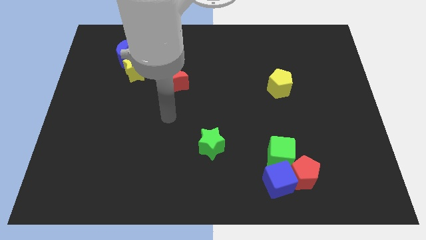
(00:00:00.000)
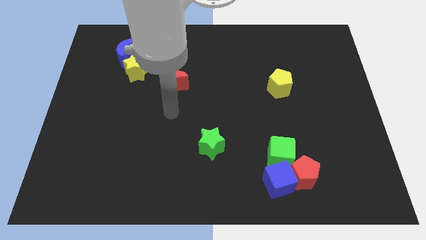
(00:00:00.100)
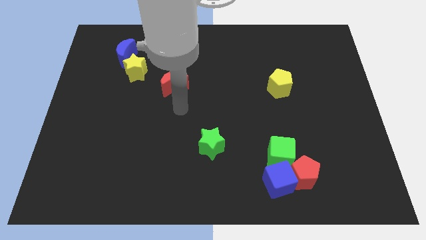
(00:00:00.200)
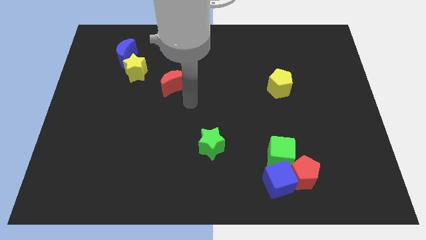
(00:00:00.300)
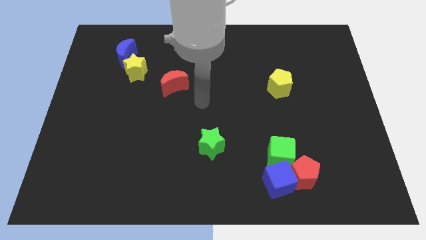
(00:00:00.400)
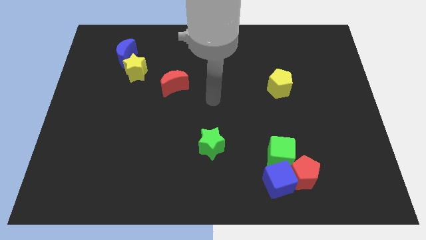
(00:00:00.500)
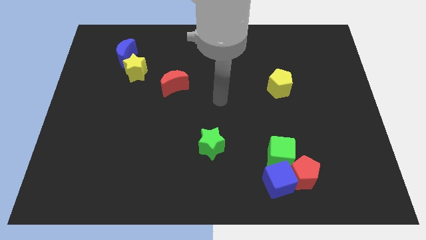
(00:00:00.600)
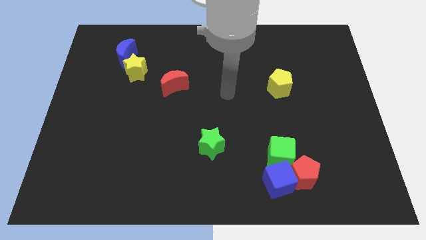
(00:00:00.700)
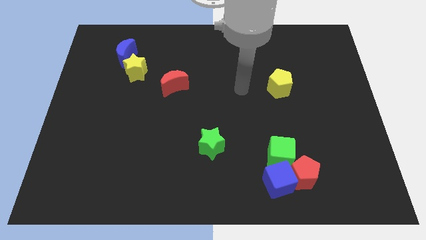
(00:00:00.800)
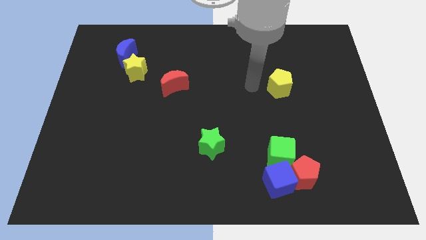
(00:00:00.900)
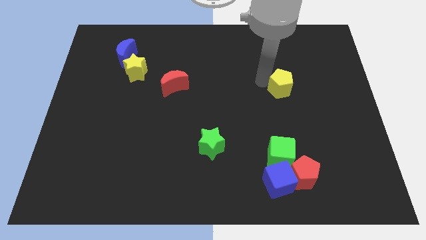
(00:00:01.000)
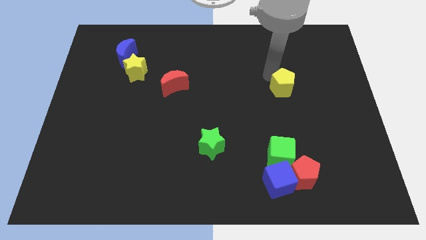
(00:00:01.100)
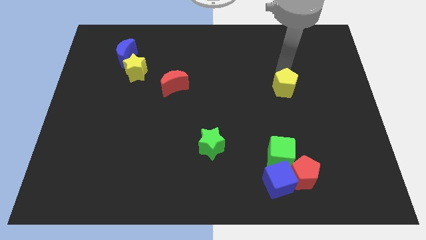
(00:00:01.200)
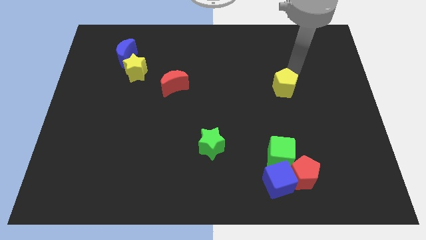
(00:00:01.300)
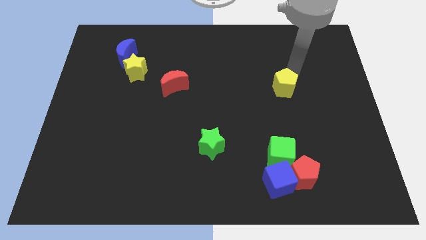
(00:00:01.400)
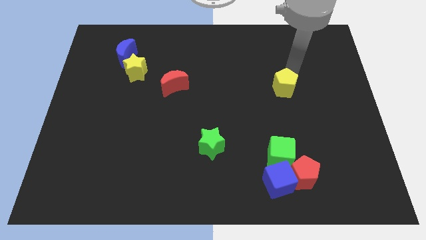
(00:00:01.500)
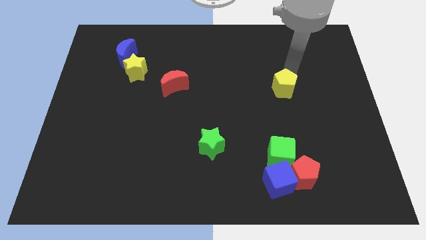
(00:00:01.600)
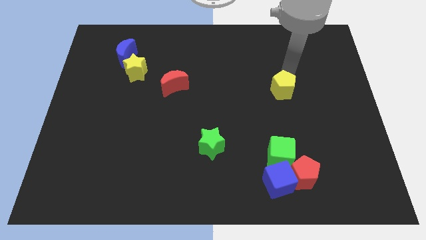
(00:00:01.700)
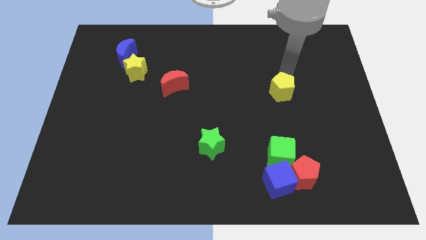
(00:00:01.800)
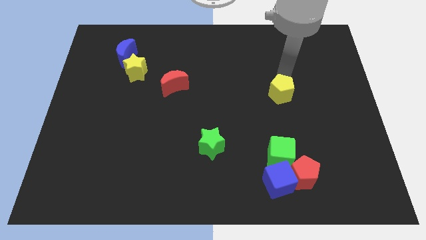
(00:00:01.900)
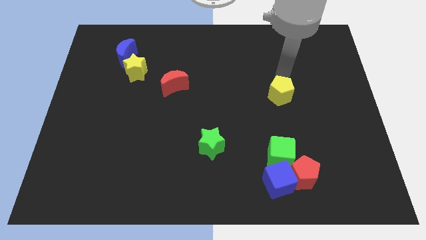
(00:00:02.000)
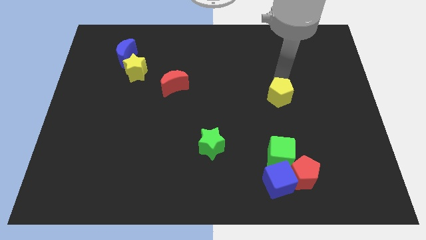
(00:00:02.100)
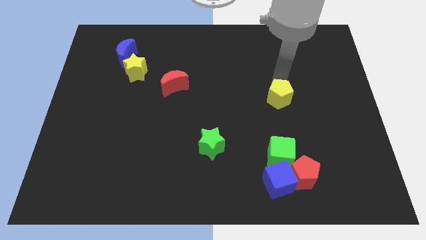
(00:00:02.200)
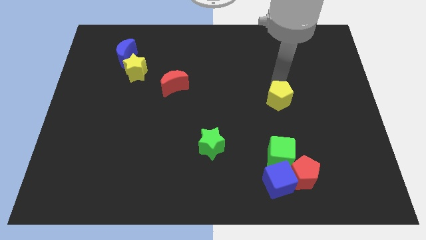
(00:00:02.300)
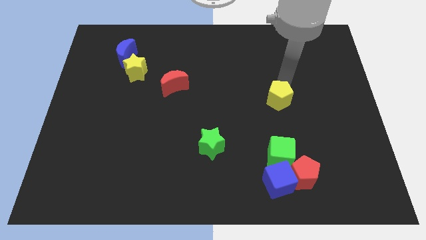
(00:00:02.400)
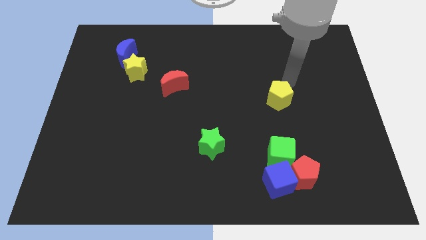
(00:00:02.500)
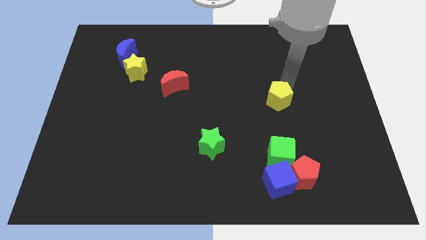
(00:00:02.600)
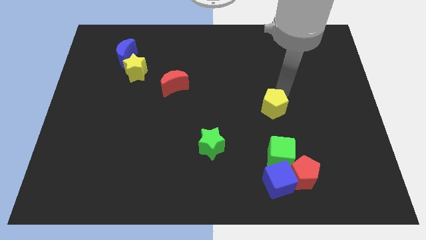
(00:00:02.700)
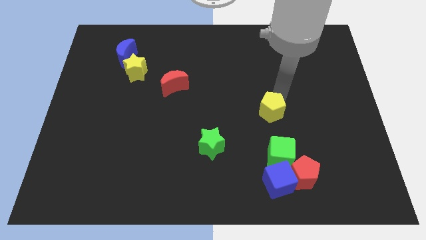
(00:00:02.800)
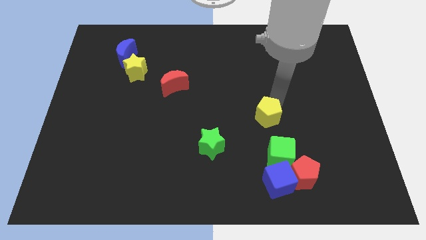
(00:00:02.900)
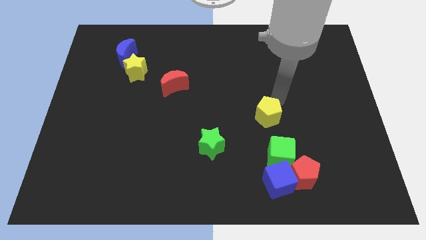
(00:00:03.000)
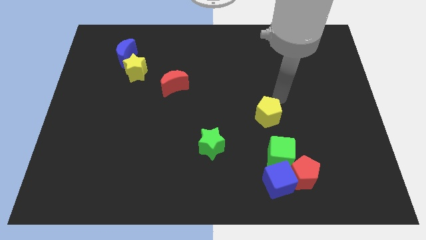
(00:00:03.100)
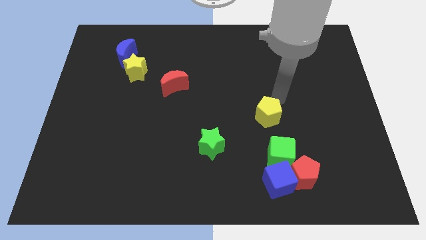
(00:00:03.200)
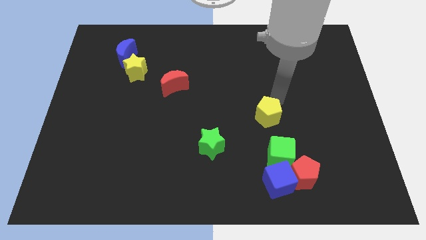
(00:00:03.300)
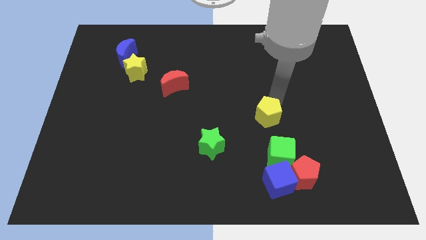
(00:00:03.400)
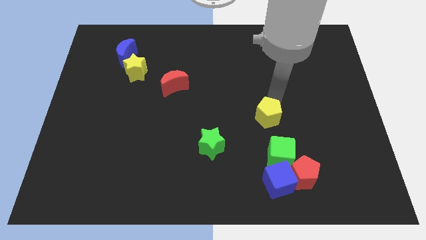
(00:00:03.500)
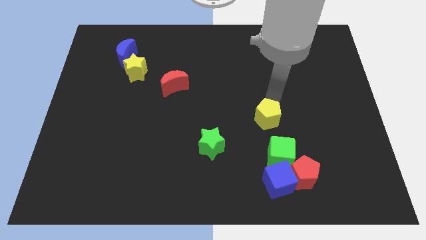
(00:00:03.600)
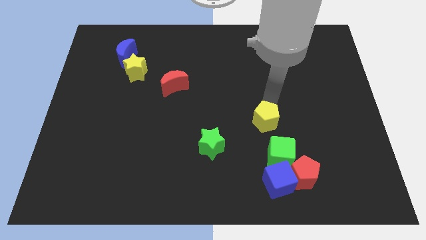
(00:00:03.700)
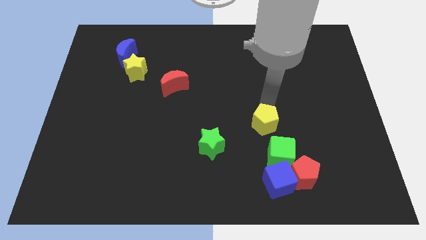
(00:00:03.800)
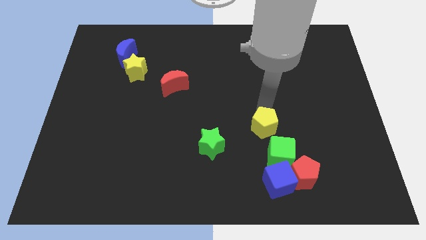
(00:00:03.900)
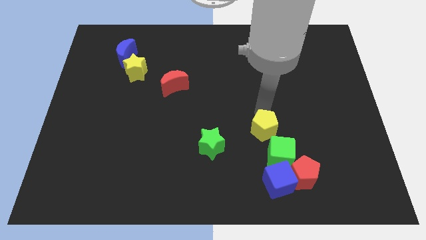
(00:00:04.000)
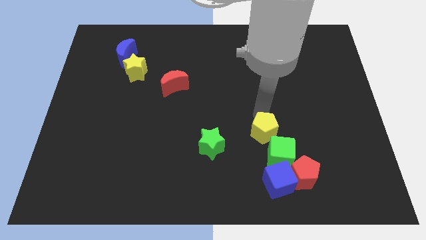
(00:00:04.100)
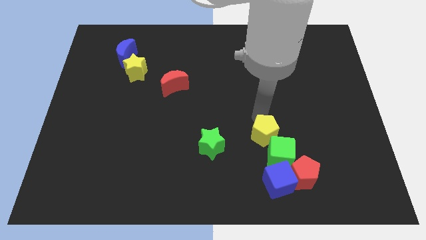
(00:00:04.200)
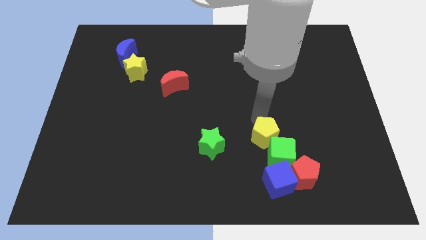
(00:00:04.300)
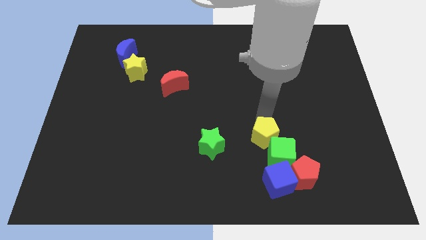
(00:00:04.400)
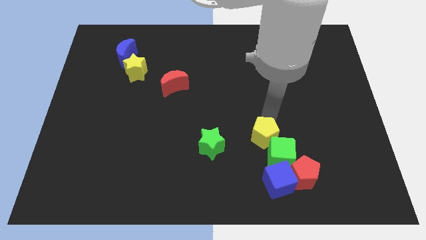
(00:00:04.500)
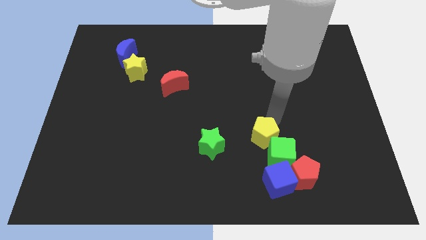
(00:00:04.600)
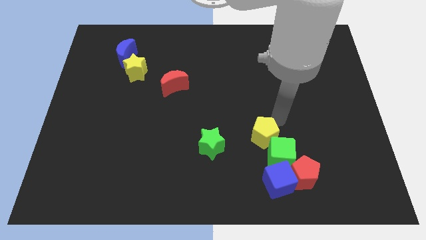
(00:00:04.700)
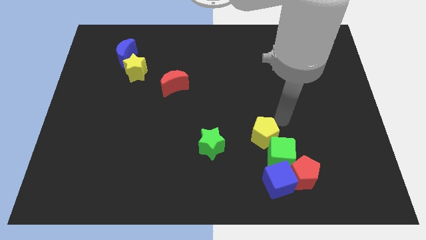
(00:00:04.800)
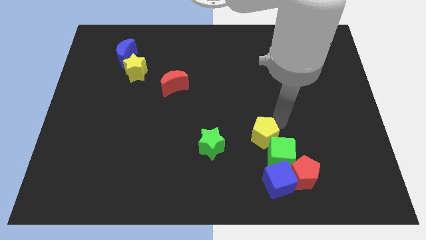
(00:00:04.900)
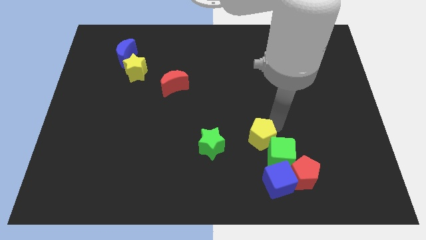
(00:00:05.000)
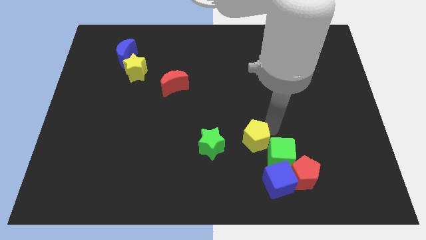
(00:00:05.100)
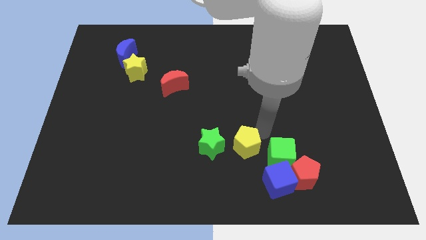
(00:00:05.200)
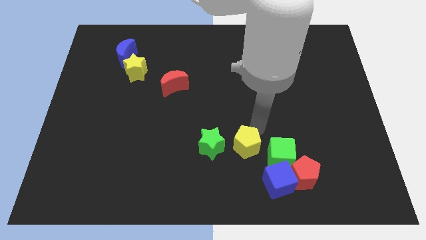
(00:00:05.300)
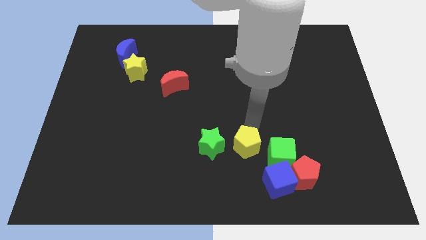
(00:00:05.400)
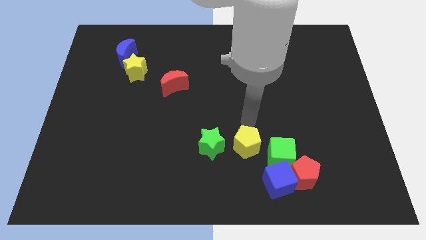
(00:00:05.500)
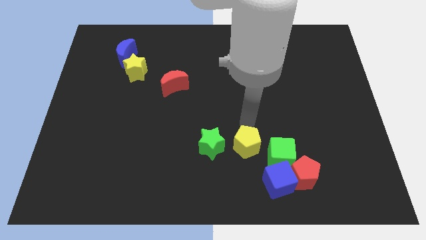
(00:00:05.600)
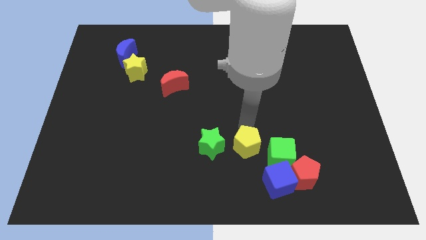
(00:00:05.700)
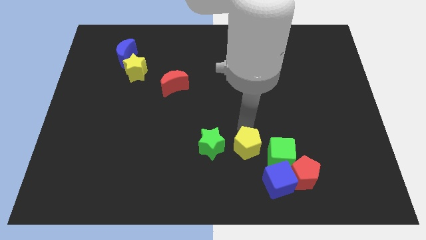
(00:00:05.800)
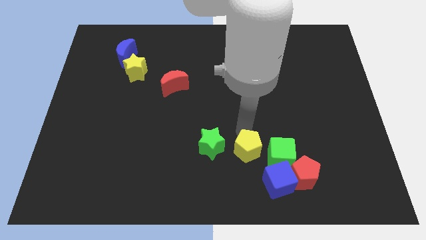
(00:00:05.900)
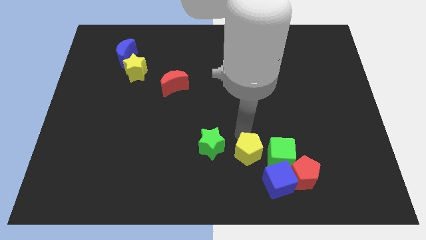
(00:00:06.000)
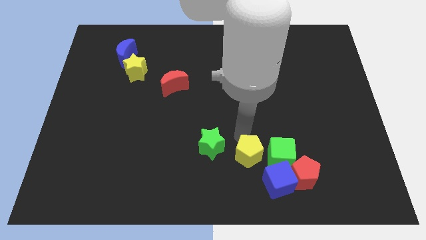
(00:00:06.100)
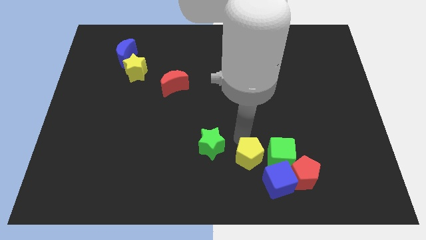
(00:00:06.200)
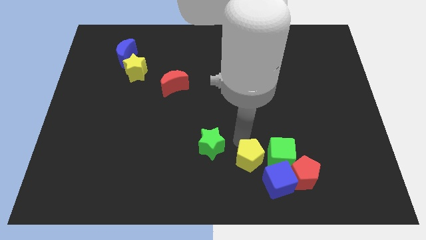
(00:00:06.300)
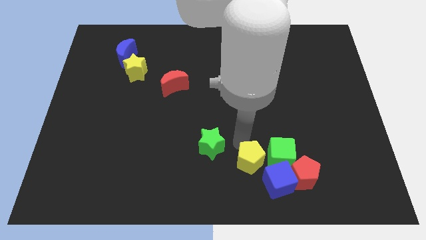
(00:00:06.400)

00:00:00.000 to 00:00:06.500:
move the yellow pentagon to the bottom
